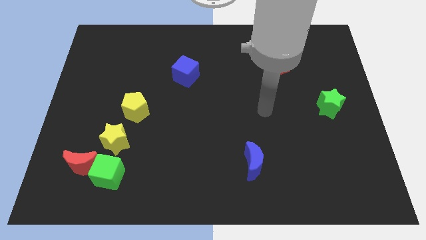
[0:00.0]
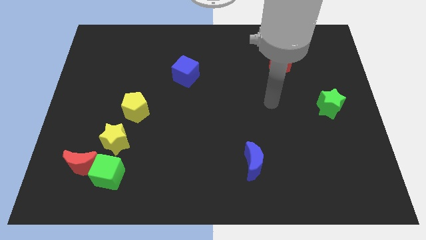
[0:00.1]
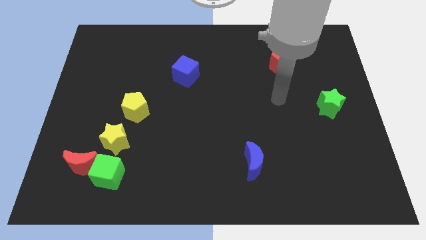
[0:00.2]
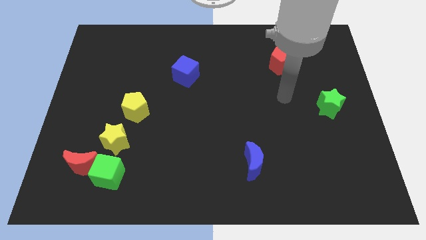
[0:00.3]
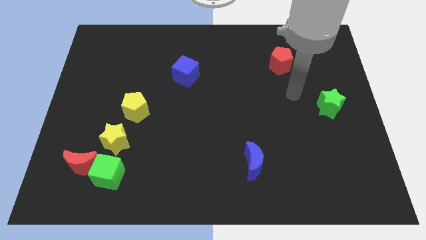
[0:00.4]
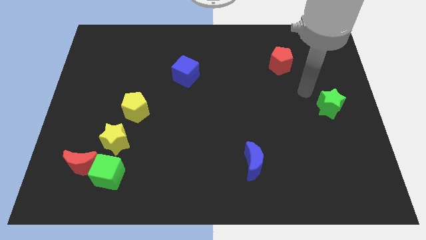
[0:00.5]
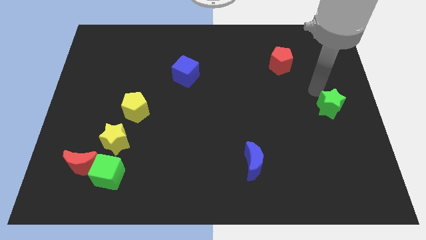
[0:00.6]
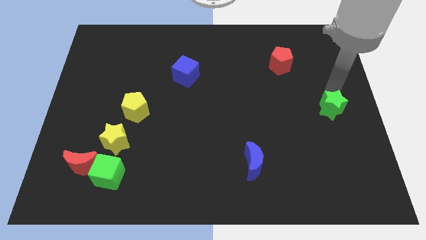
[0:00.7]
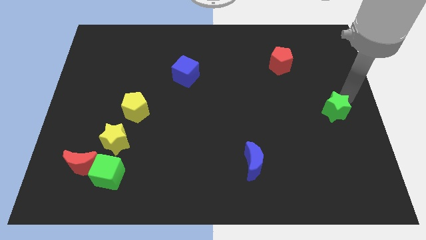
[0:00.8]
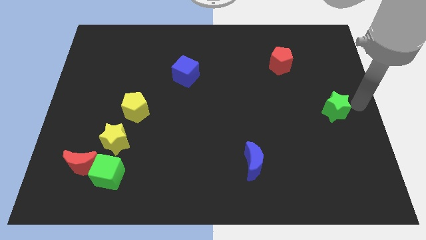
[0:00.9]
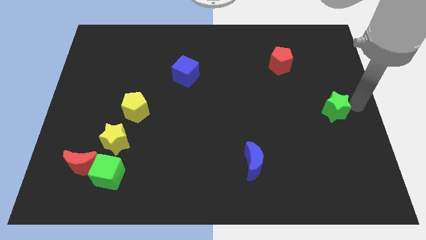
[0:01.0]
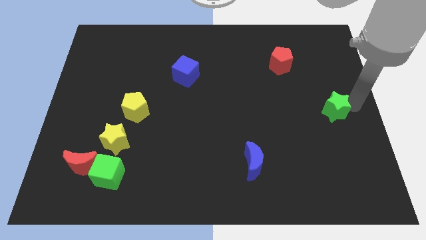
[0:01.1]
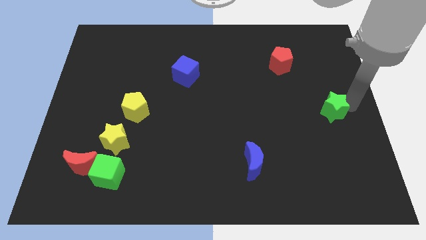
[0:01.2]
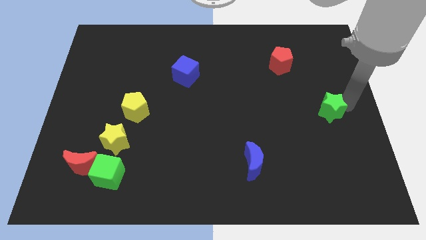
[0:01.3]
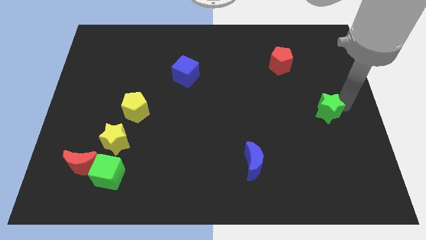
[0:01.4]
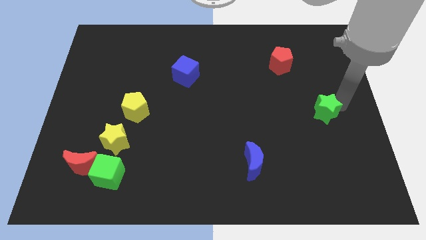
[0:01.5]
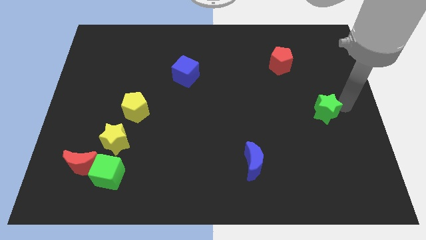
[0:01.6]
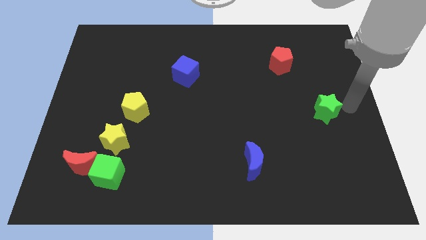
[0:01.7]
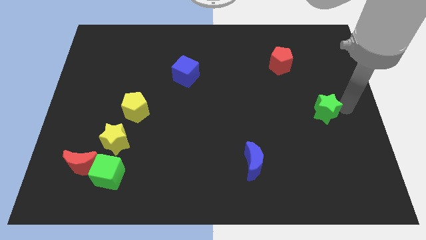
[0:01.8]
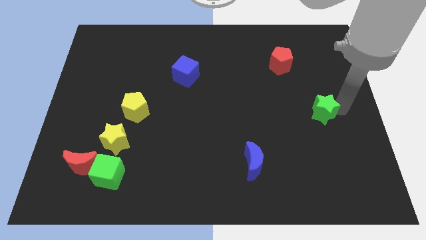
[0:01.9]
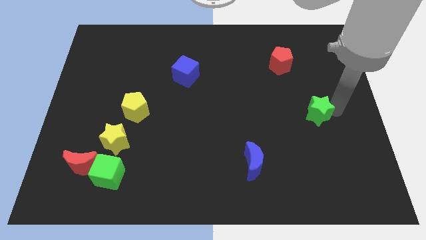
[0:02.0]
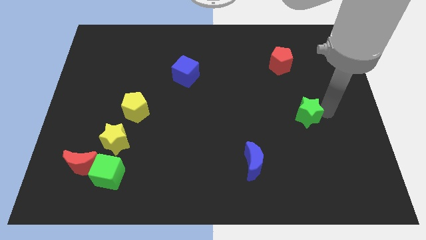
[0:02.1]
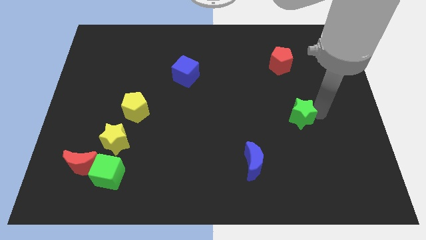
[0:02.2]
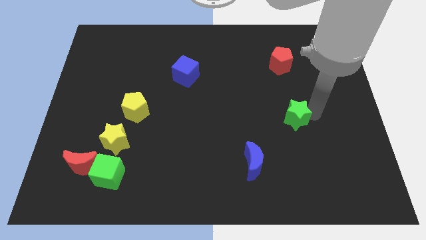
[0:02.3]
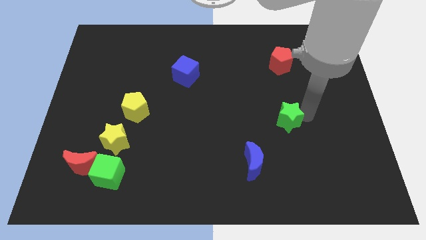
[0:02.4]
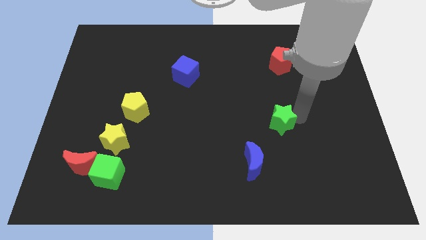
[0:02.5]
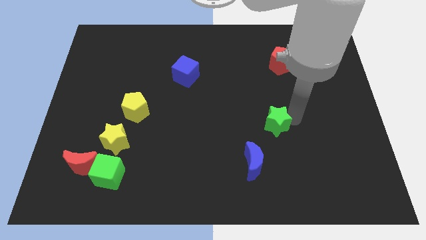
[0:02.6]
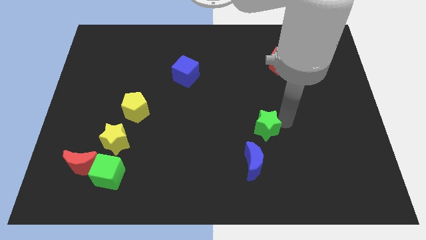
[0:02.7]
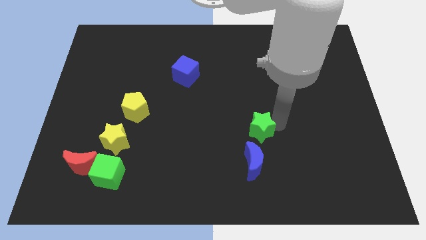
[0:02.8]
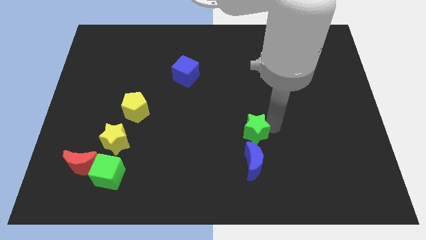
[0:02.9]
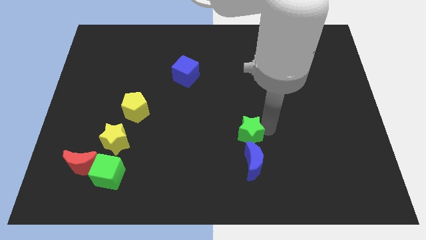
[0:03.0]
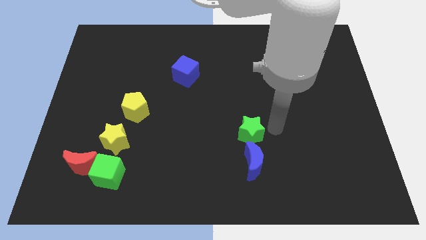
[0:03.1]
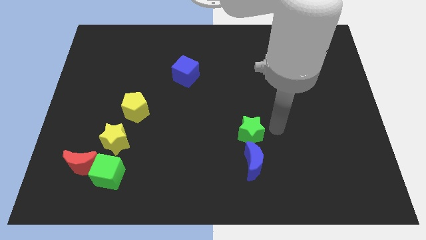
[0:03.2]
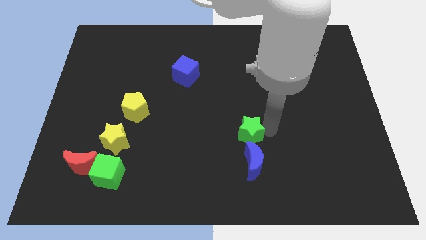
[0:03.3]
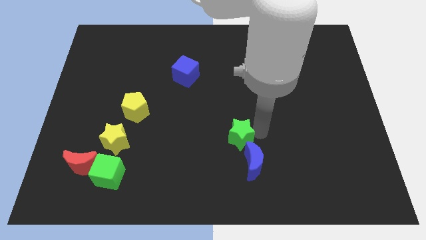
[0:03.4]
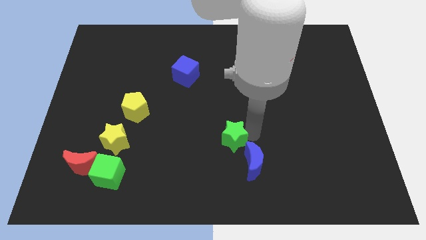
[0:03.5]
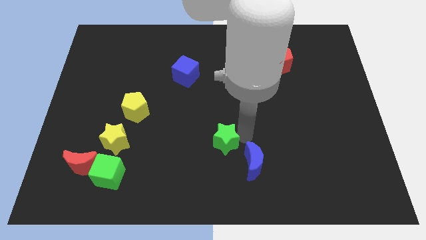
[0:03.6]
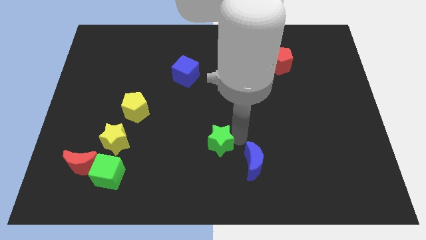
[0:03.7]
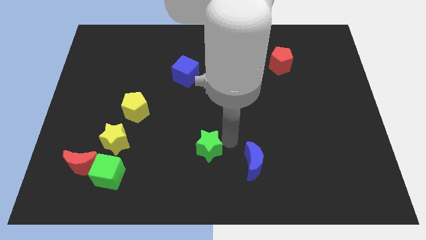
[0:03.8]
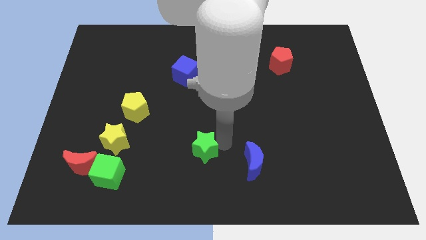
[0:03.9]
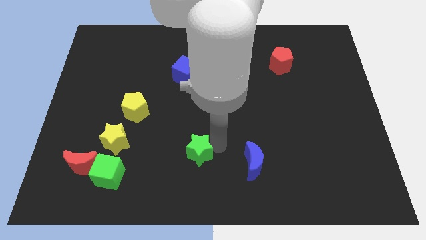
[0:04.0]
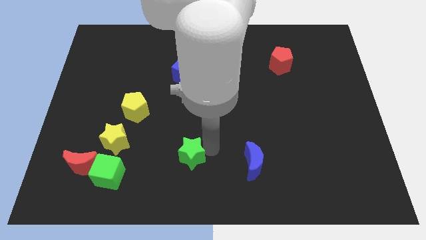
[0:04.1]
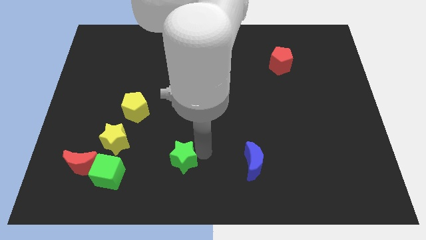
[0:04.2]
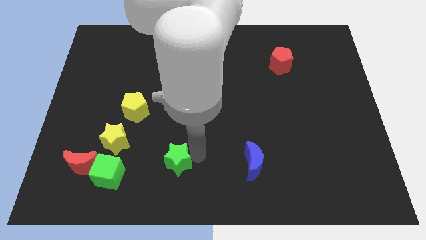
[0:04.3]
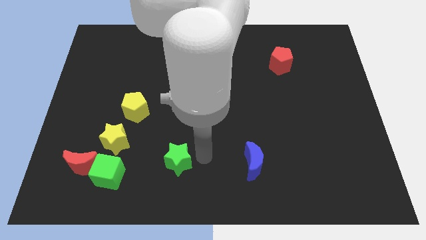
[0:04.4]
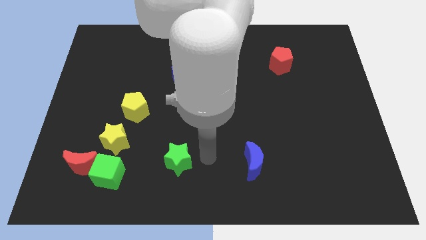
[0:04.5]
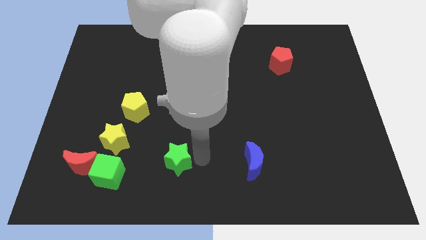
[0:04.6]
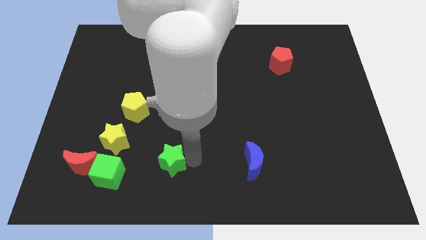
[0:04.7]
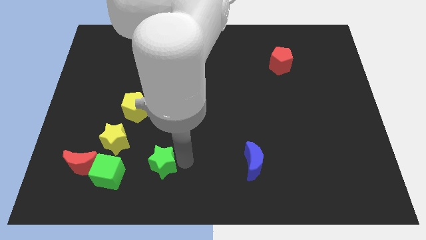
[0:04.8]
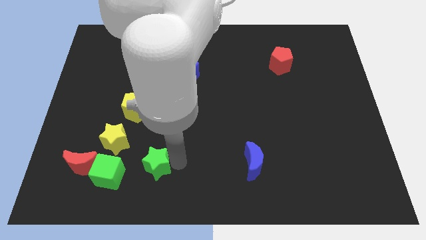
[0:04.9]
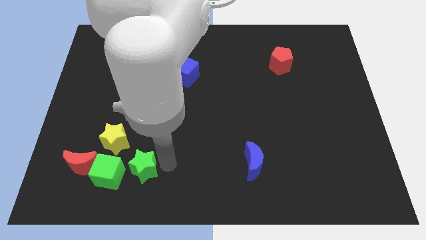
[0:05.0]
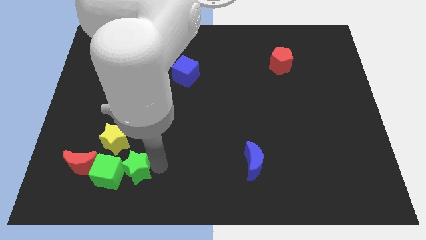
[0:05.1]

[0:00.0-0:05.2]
slide the green star next to the green cube

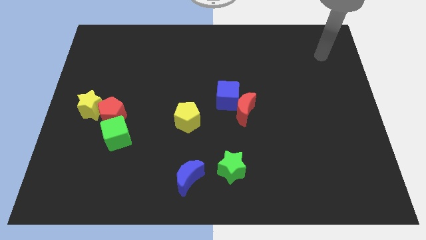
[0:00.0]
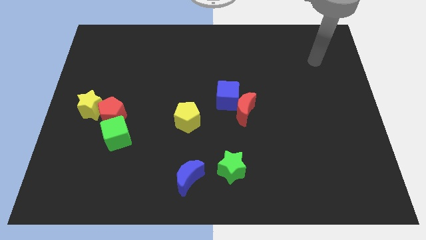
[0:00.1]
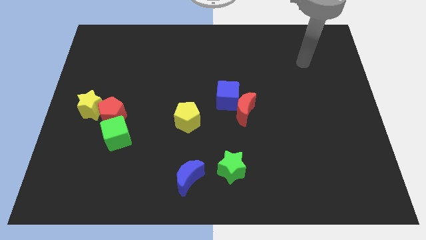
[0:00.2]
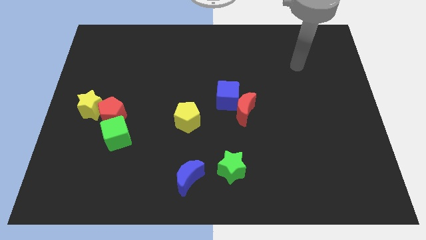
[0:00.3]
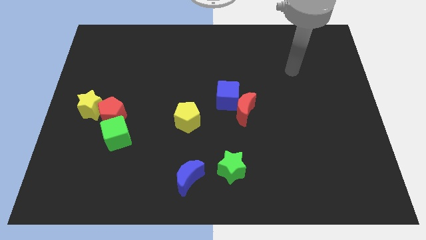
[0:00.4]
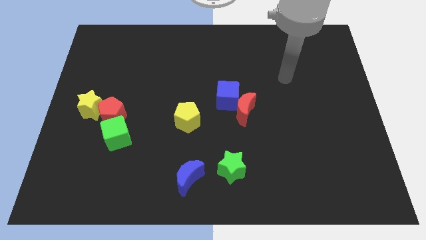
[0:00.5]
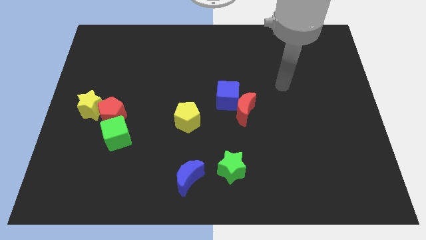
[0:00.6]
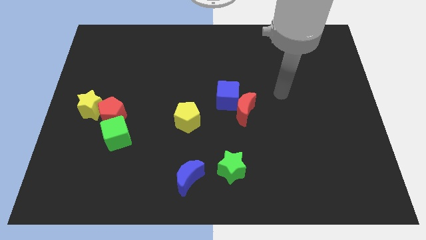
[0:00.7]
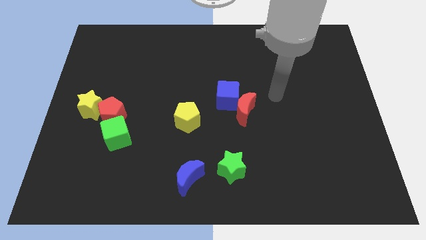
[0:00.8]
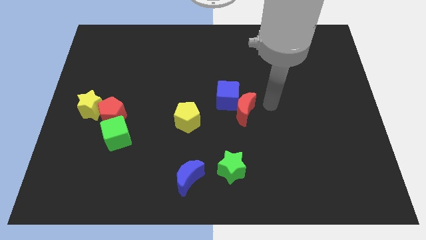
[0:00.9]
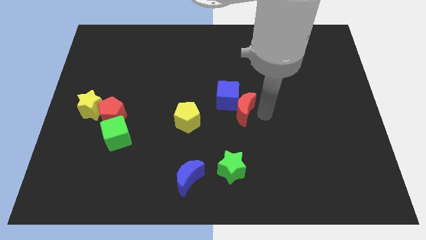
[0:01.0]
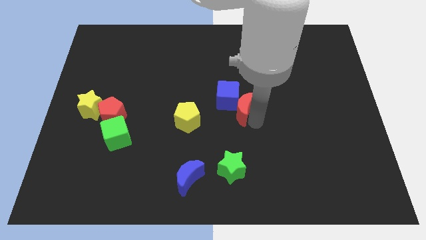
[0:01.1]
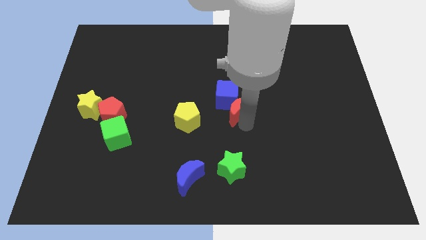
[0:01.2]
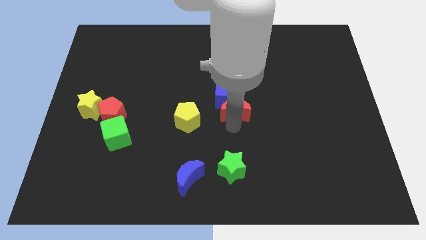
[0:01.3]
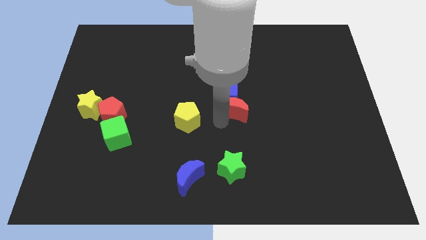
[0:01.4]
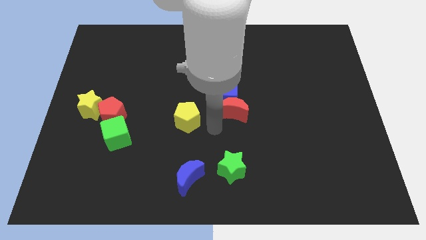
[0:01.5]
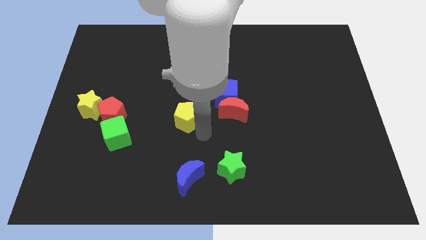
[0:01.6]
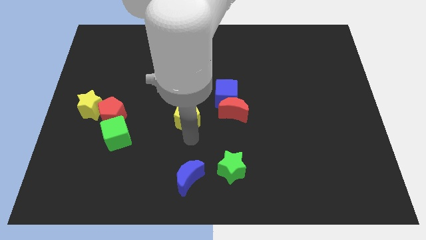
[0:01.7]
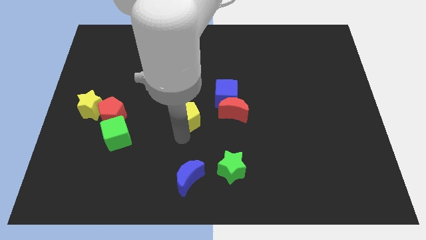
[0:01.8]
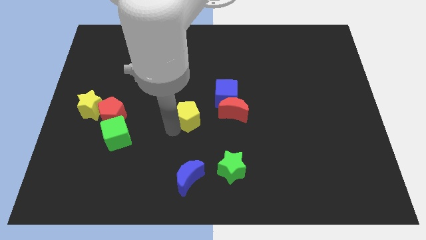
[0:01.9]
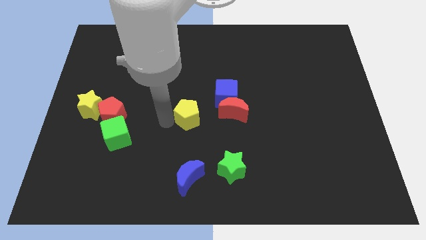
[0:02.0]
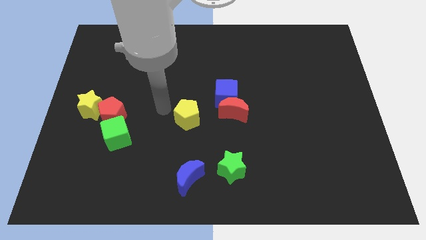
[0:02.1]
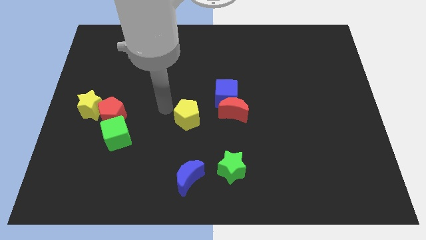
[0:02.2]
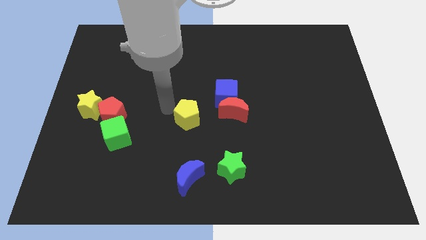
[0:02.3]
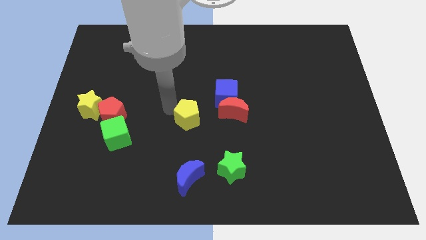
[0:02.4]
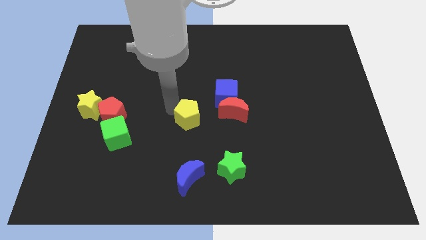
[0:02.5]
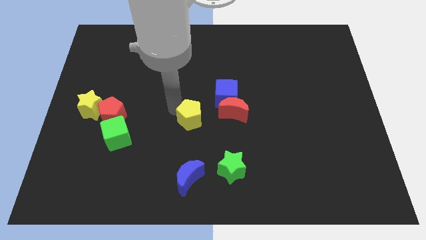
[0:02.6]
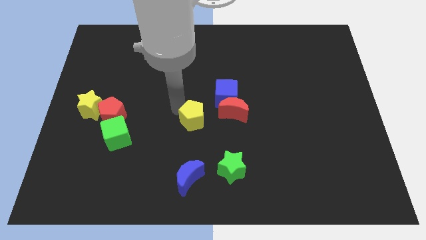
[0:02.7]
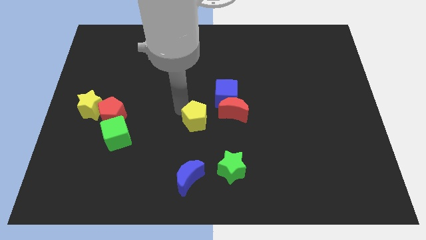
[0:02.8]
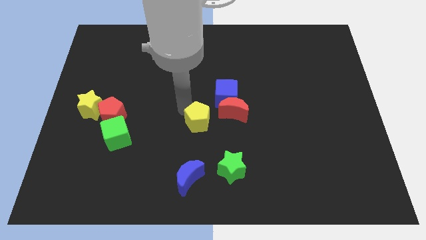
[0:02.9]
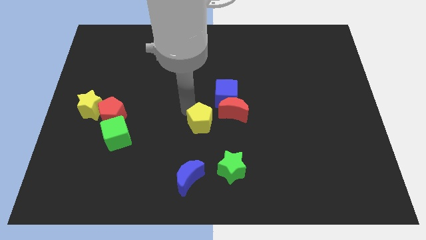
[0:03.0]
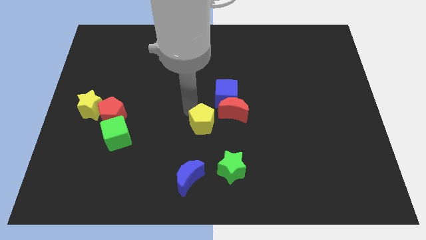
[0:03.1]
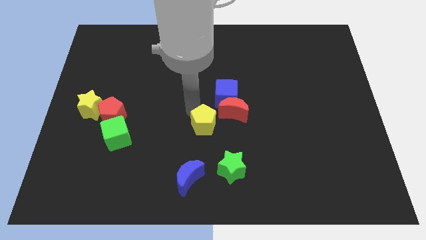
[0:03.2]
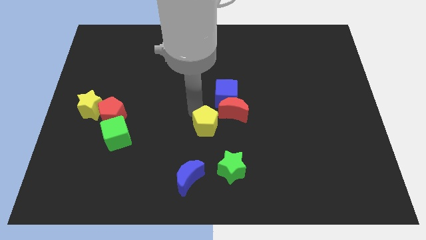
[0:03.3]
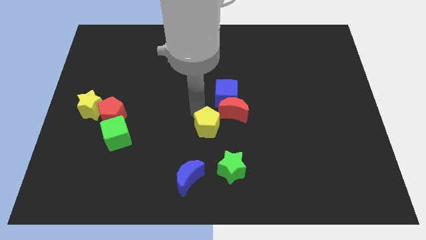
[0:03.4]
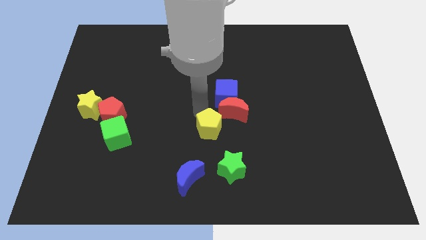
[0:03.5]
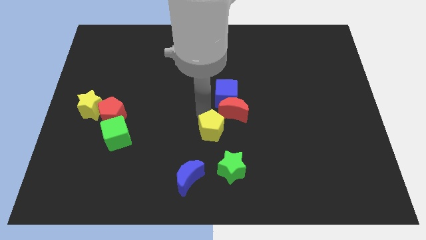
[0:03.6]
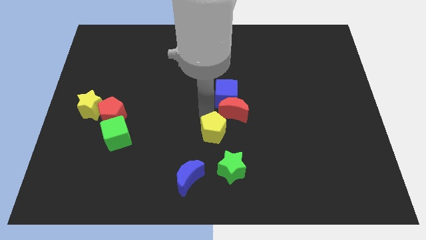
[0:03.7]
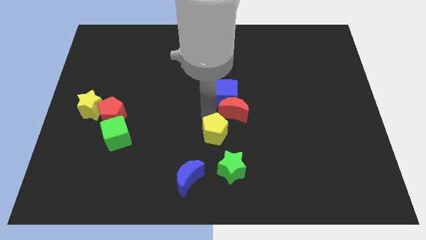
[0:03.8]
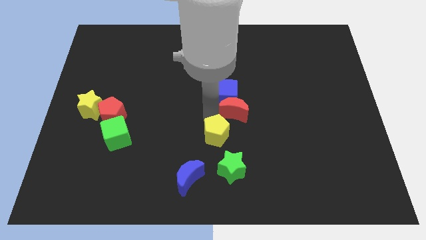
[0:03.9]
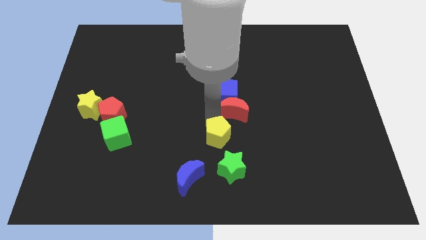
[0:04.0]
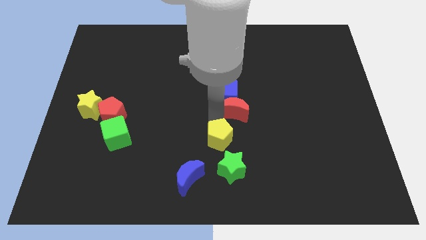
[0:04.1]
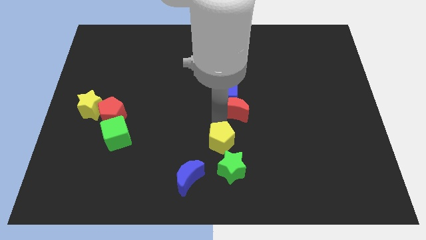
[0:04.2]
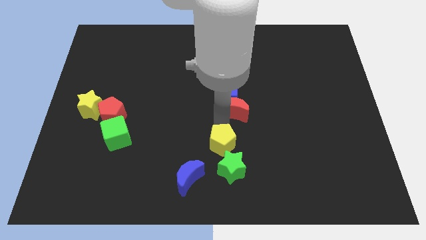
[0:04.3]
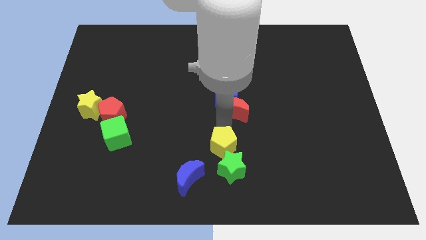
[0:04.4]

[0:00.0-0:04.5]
slide the yellow pentagon towards the green star
